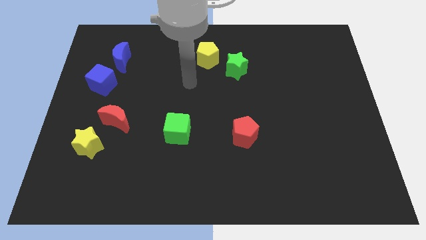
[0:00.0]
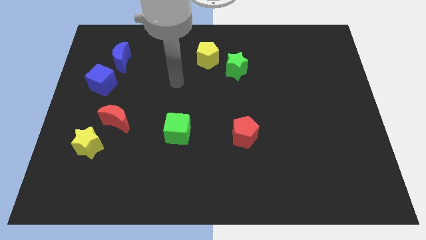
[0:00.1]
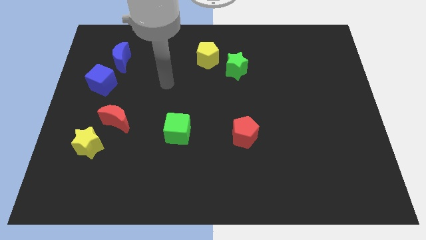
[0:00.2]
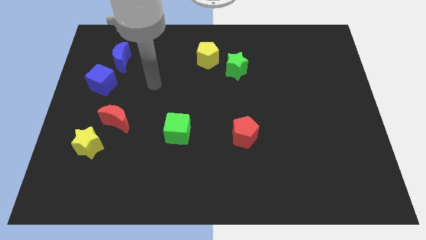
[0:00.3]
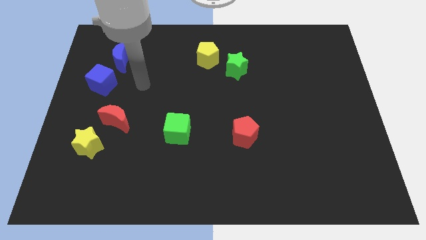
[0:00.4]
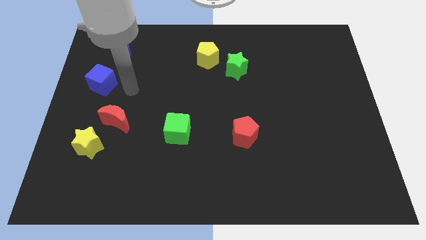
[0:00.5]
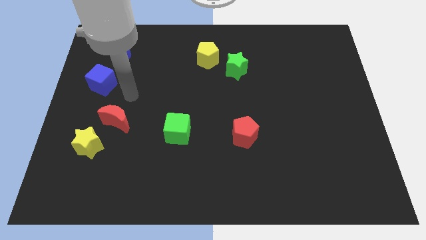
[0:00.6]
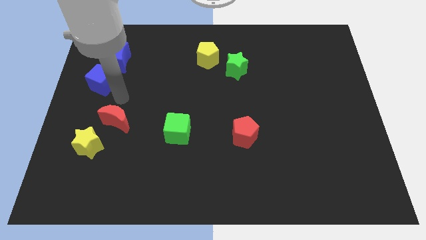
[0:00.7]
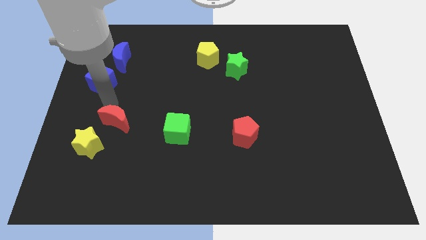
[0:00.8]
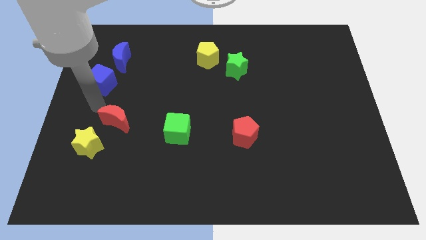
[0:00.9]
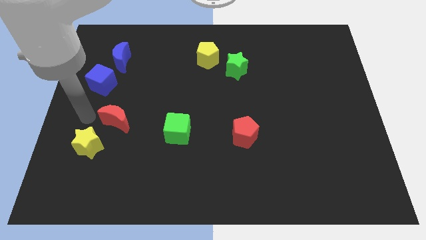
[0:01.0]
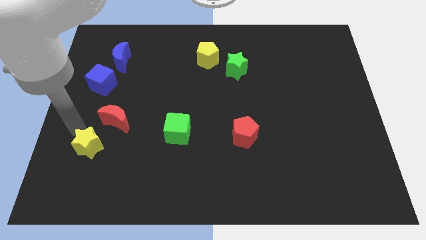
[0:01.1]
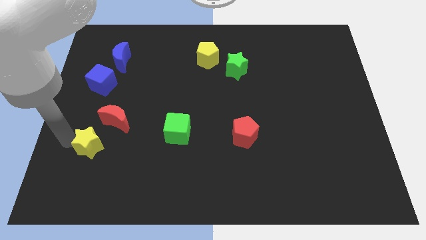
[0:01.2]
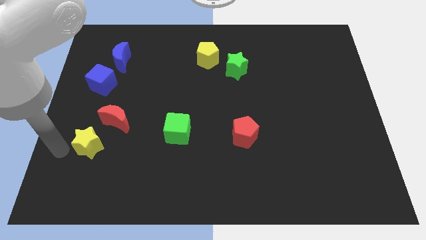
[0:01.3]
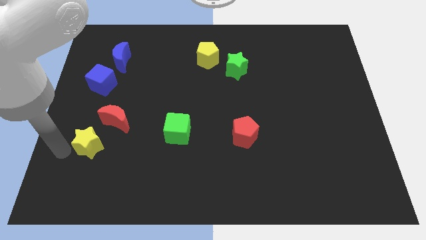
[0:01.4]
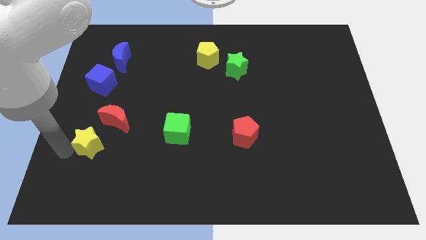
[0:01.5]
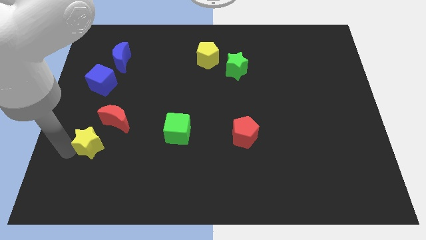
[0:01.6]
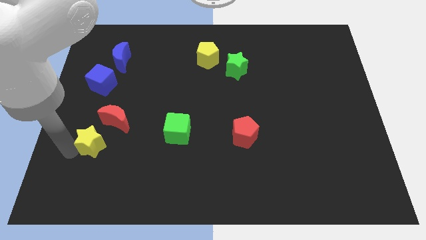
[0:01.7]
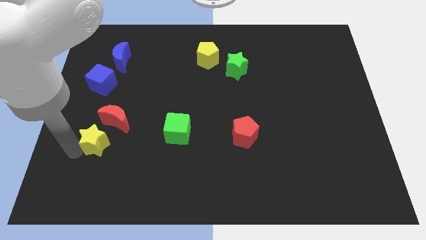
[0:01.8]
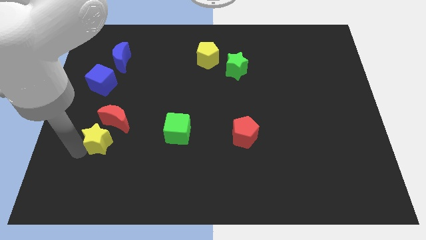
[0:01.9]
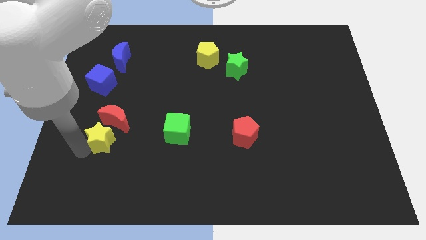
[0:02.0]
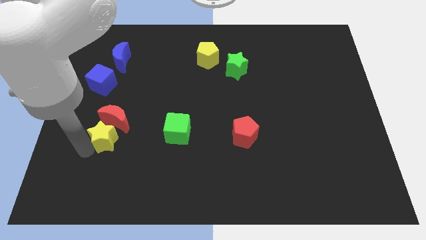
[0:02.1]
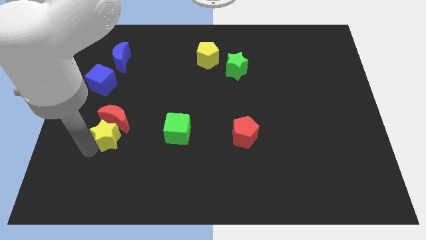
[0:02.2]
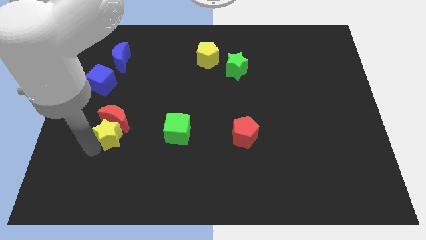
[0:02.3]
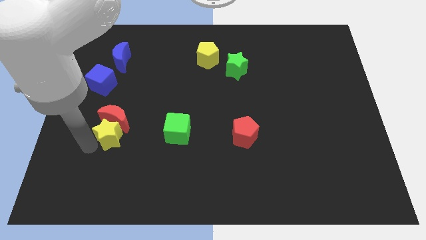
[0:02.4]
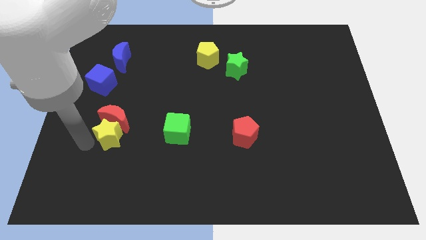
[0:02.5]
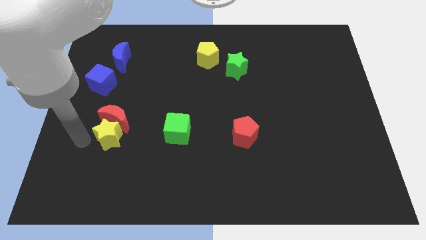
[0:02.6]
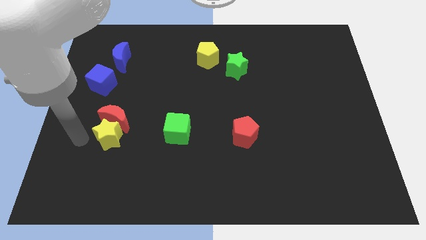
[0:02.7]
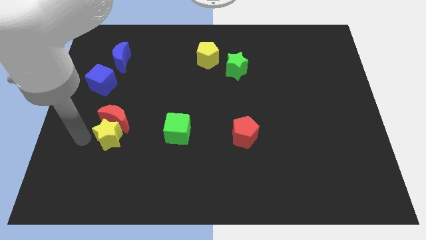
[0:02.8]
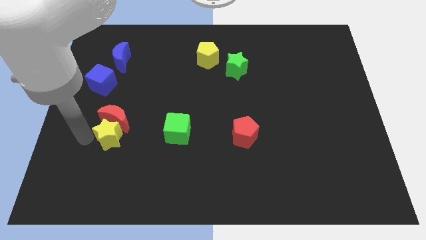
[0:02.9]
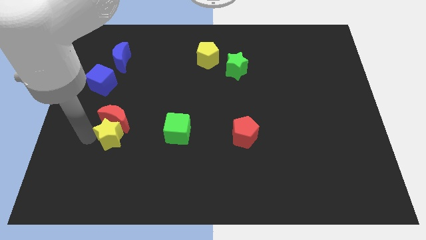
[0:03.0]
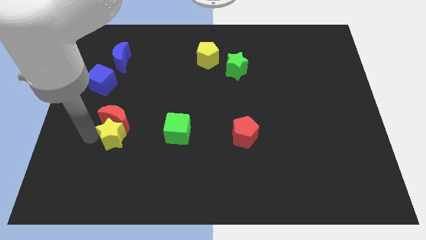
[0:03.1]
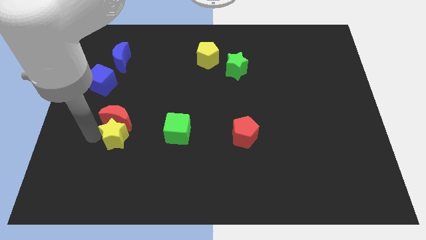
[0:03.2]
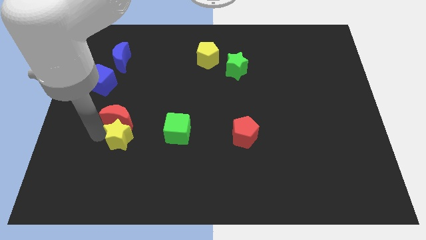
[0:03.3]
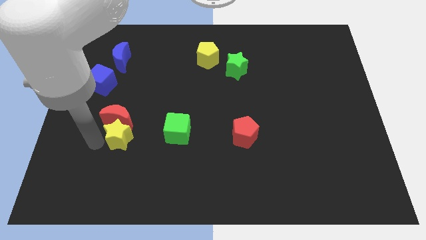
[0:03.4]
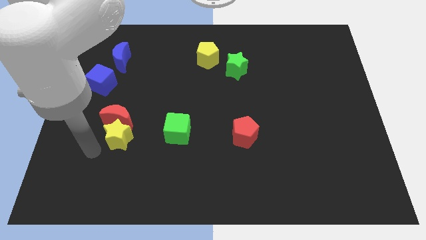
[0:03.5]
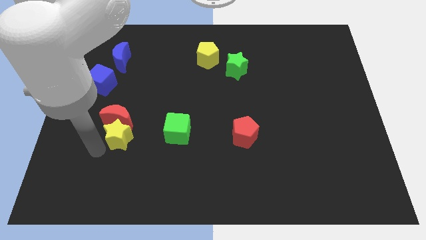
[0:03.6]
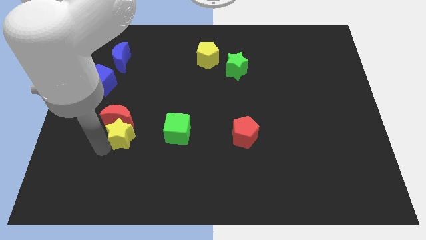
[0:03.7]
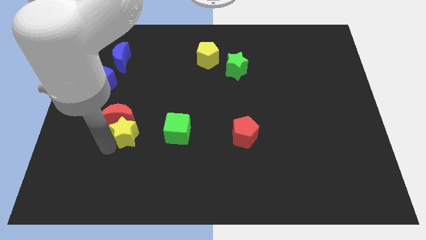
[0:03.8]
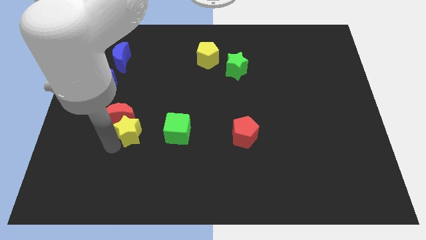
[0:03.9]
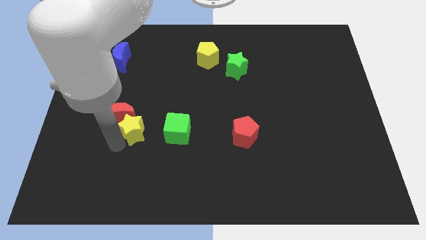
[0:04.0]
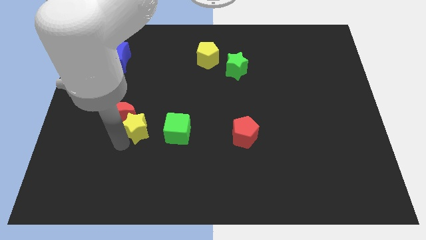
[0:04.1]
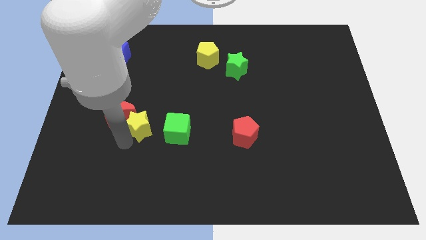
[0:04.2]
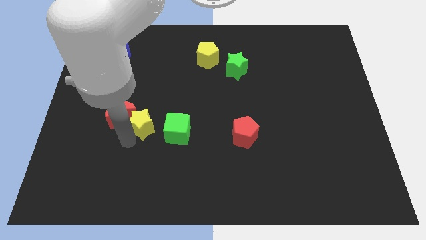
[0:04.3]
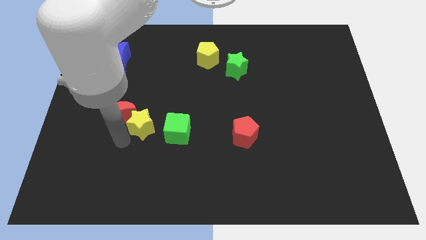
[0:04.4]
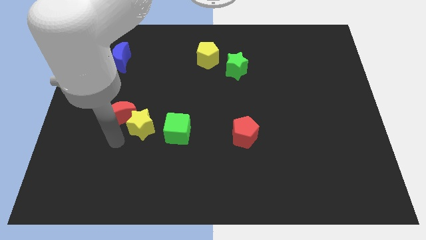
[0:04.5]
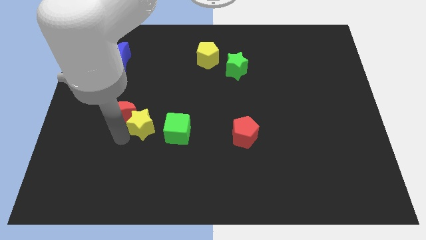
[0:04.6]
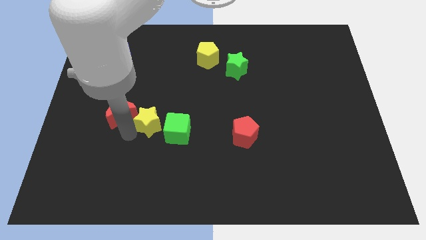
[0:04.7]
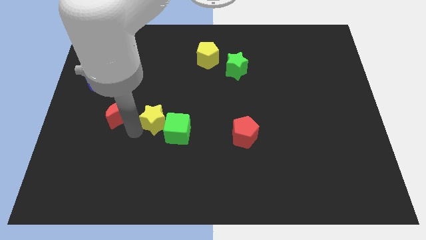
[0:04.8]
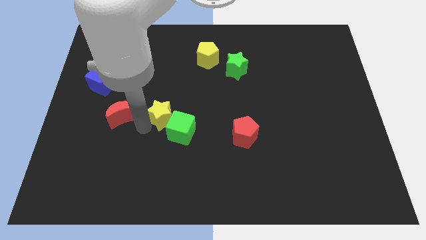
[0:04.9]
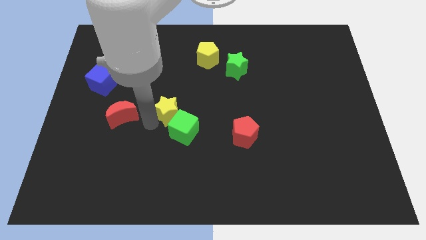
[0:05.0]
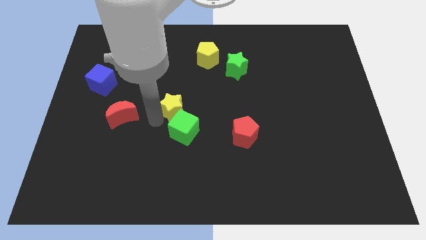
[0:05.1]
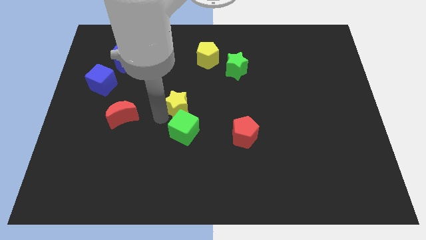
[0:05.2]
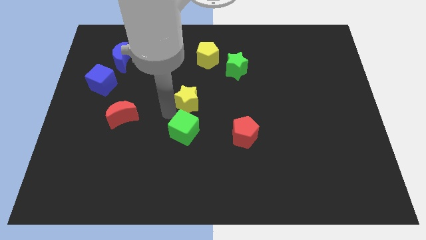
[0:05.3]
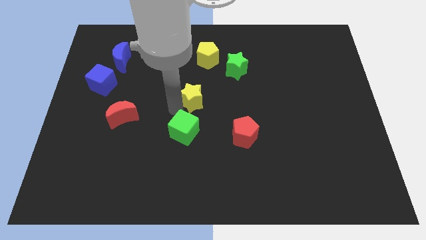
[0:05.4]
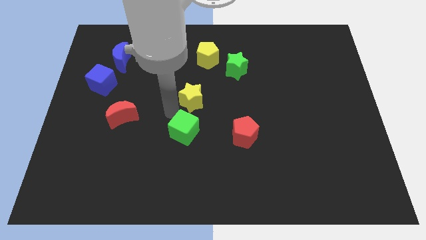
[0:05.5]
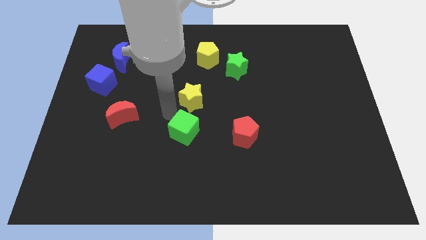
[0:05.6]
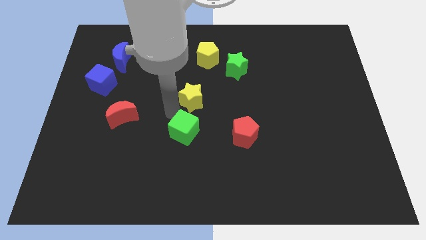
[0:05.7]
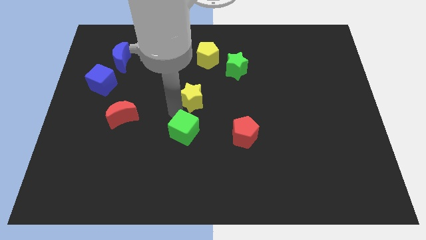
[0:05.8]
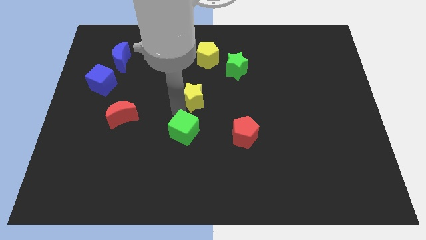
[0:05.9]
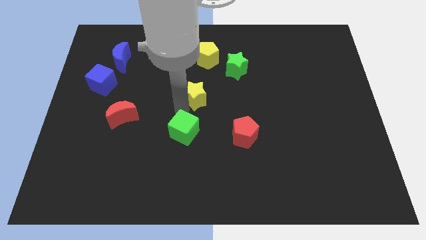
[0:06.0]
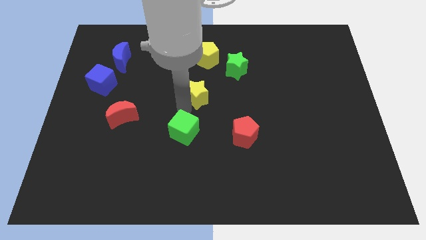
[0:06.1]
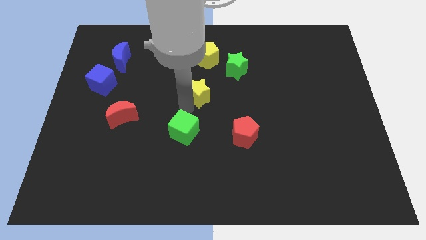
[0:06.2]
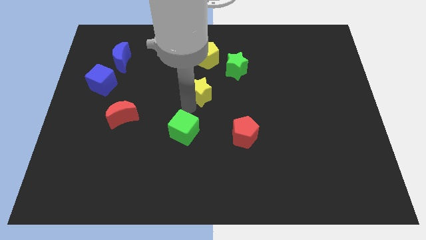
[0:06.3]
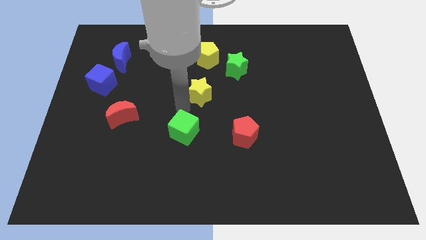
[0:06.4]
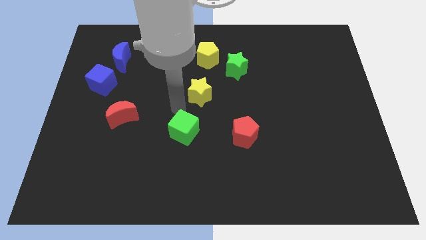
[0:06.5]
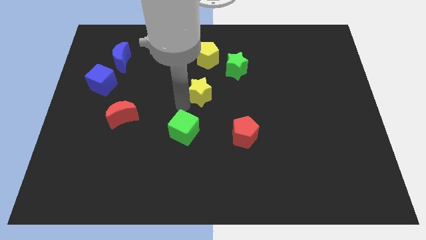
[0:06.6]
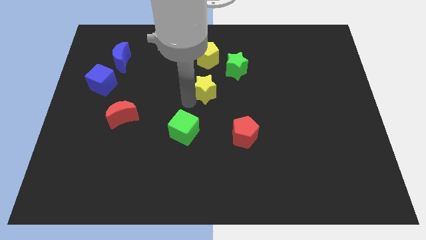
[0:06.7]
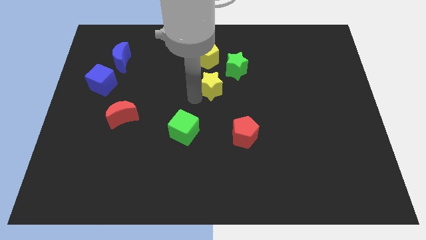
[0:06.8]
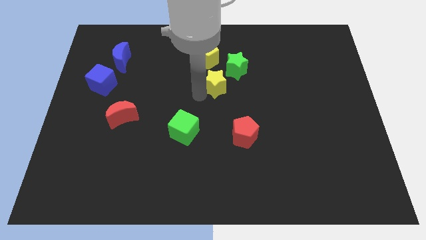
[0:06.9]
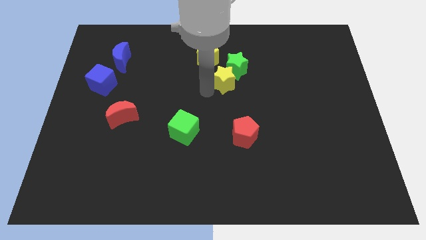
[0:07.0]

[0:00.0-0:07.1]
push the yellow star close to the green star
